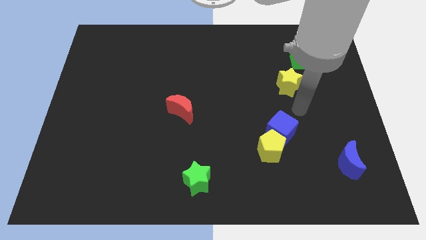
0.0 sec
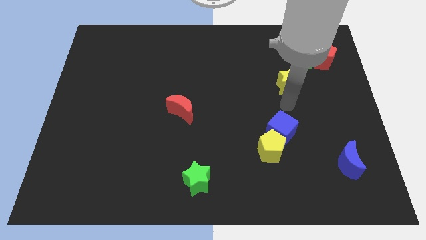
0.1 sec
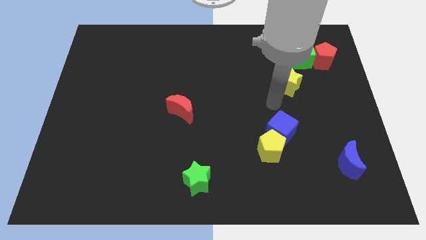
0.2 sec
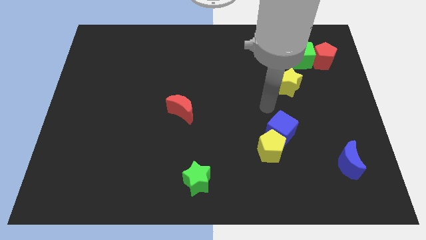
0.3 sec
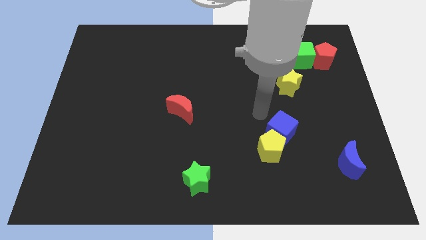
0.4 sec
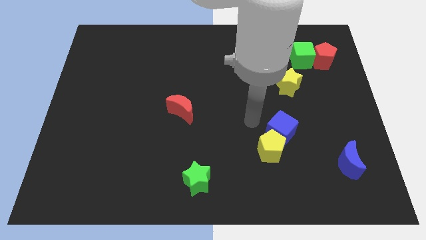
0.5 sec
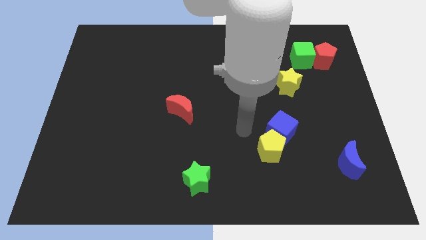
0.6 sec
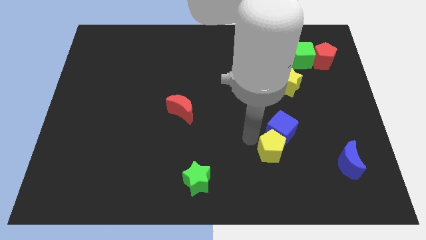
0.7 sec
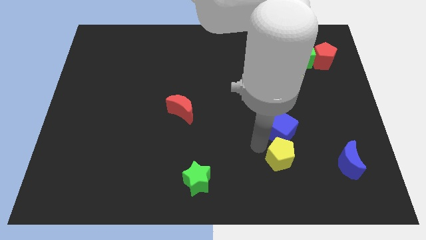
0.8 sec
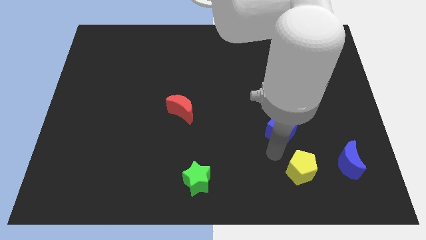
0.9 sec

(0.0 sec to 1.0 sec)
pull the blue cube apart from the yellow pentagon

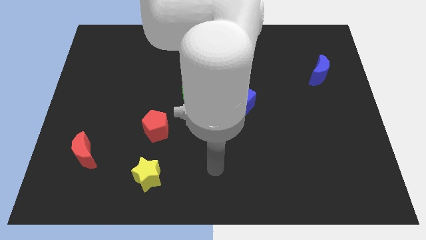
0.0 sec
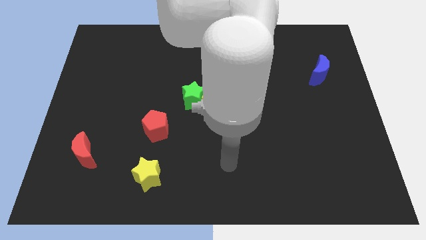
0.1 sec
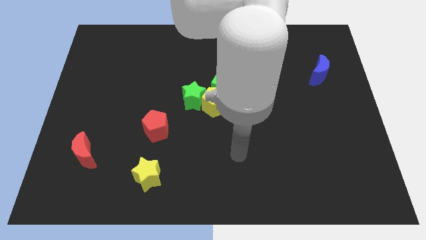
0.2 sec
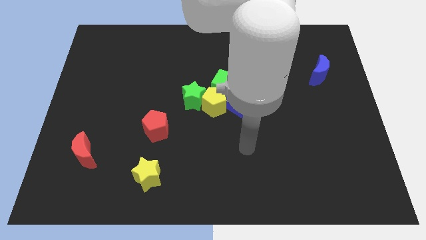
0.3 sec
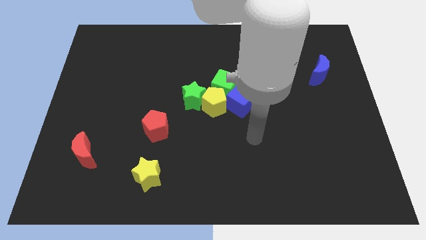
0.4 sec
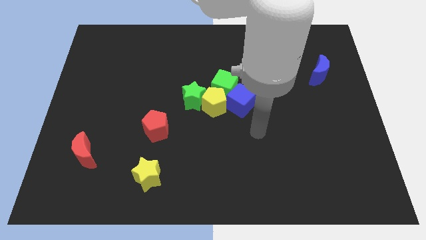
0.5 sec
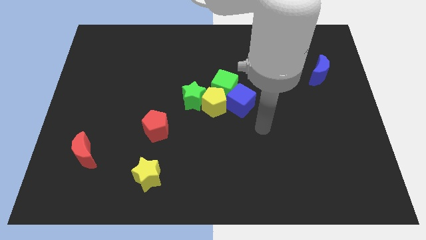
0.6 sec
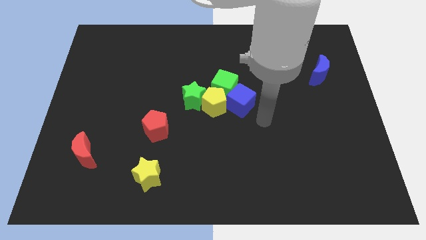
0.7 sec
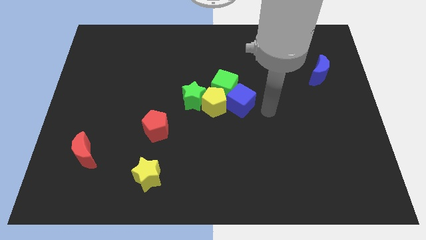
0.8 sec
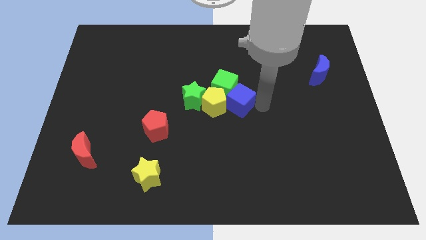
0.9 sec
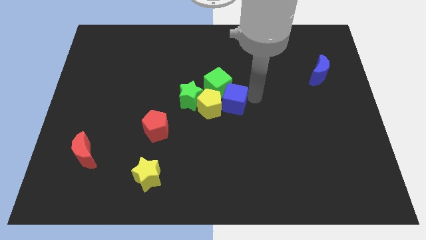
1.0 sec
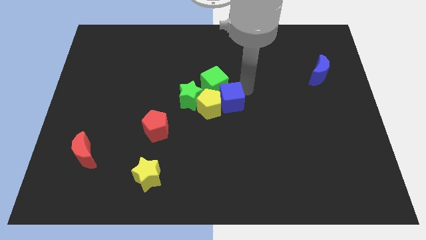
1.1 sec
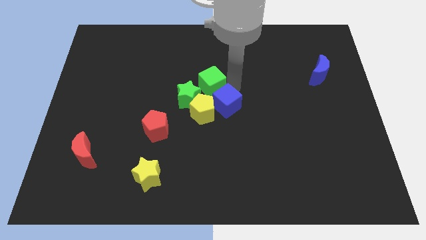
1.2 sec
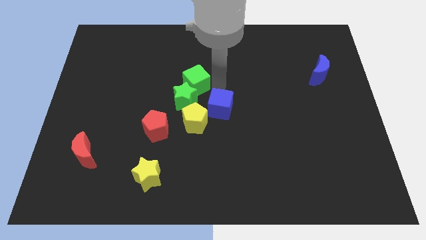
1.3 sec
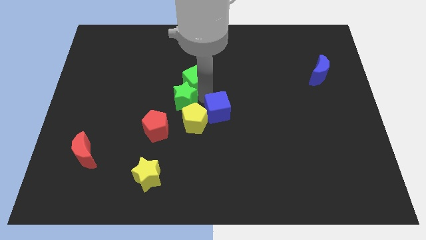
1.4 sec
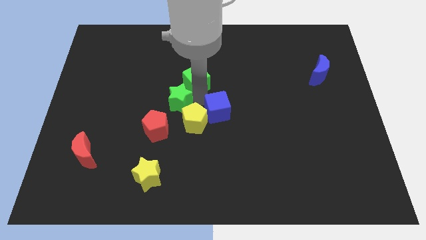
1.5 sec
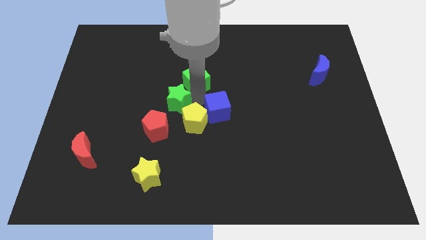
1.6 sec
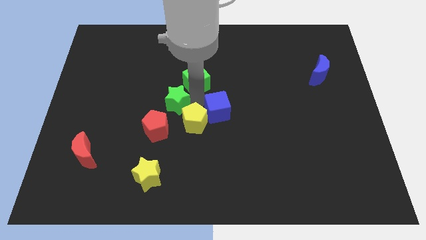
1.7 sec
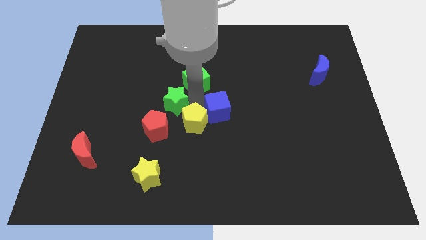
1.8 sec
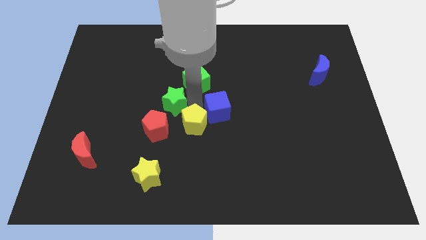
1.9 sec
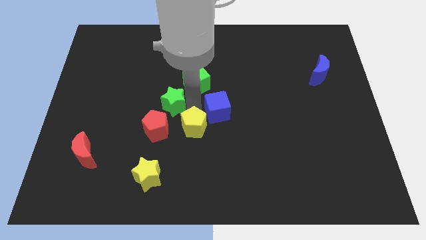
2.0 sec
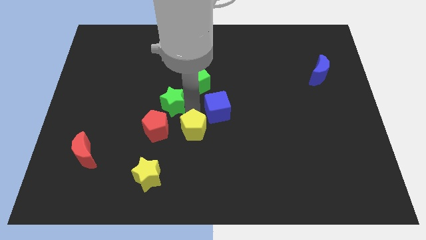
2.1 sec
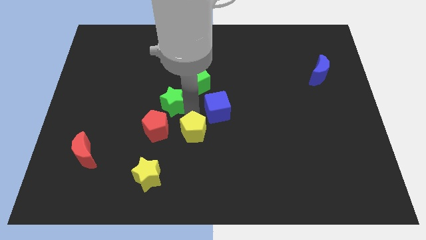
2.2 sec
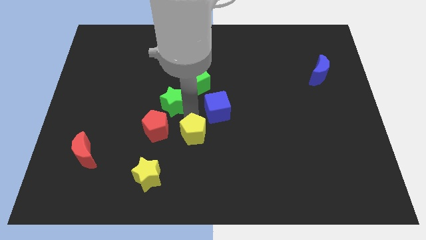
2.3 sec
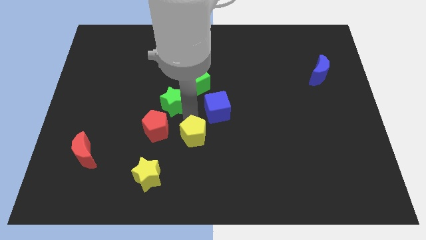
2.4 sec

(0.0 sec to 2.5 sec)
move the yellow pentagon away from the group

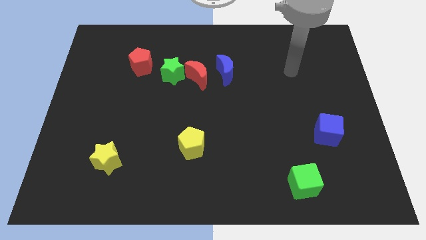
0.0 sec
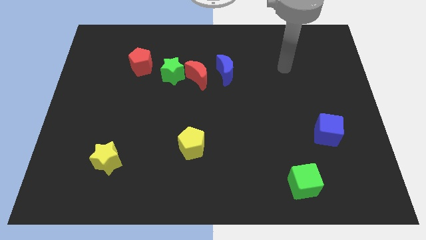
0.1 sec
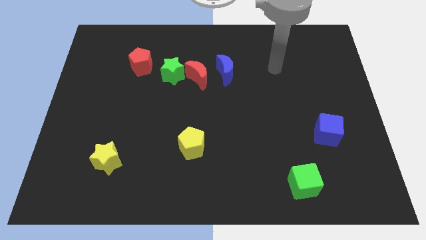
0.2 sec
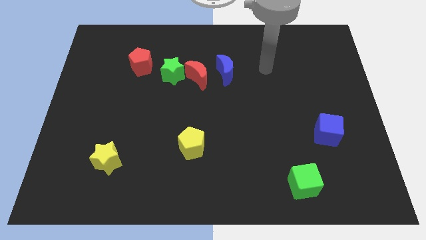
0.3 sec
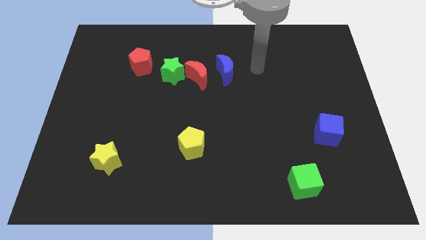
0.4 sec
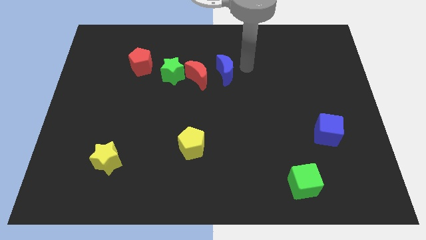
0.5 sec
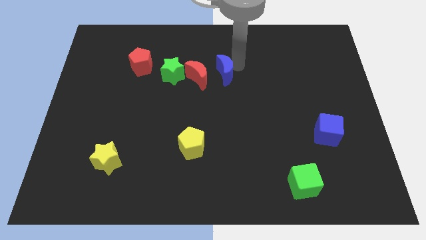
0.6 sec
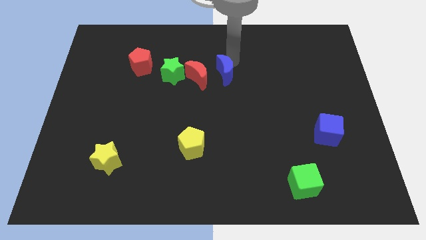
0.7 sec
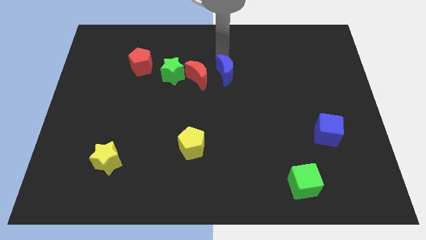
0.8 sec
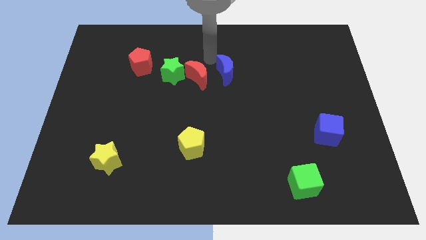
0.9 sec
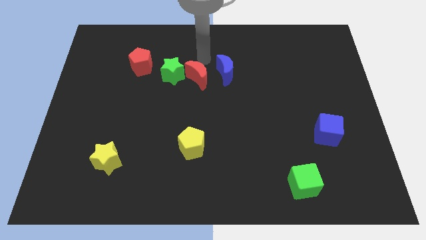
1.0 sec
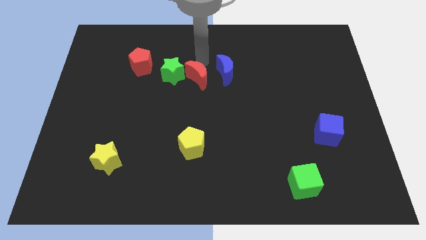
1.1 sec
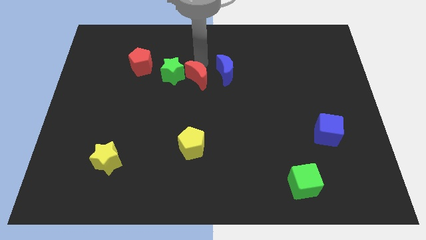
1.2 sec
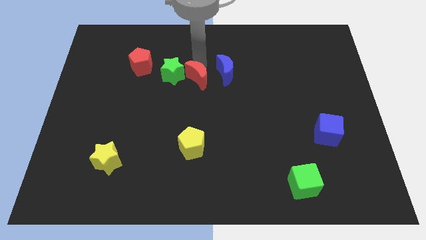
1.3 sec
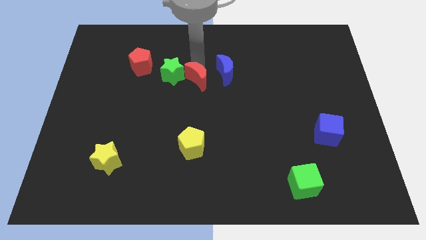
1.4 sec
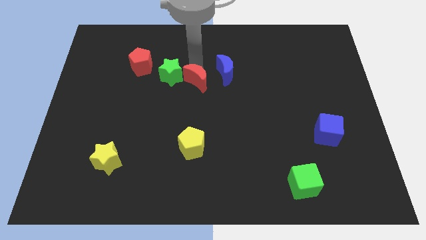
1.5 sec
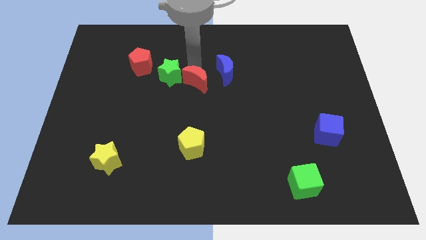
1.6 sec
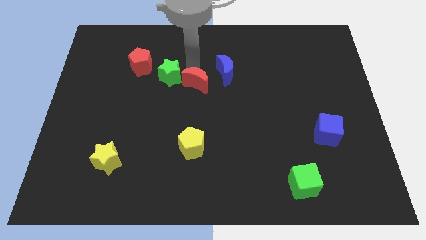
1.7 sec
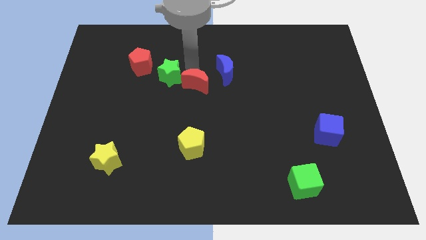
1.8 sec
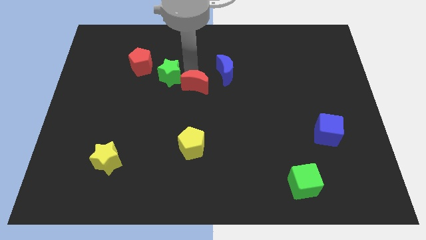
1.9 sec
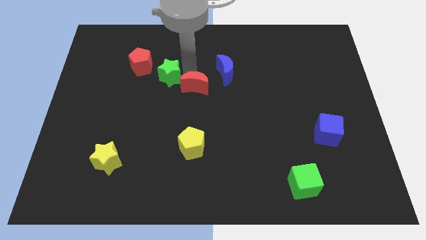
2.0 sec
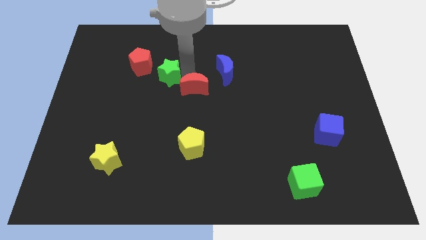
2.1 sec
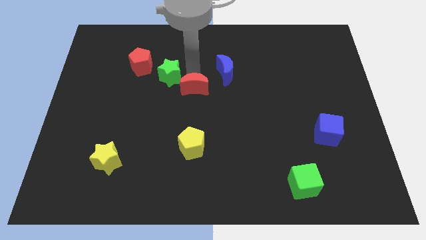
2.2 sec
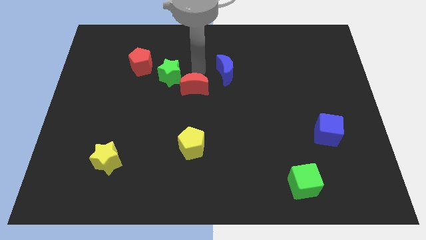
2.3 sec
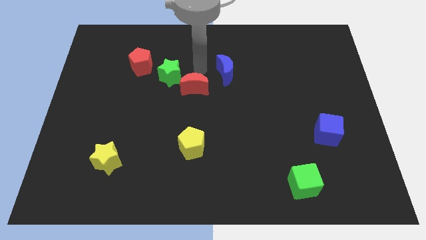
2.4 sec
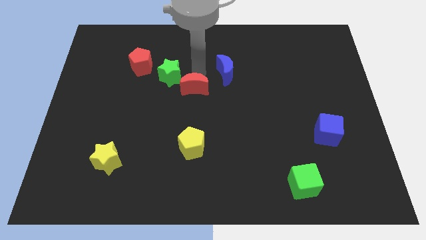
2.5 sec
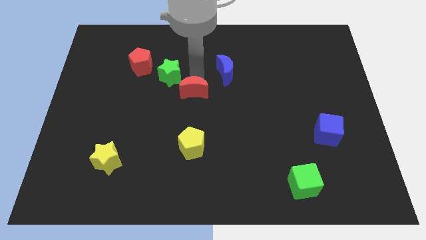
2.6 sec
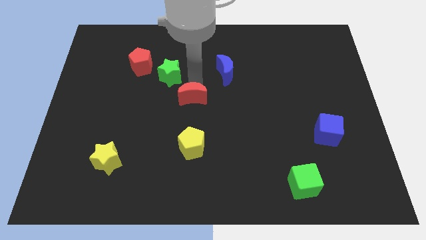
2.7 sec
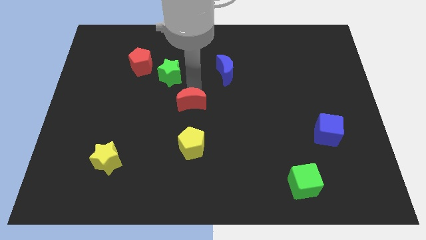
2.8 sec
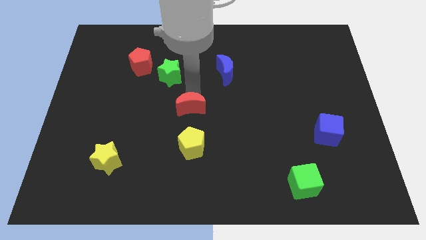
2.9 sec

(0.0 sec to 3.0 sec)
move the red moon away from the green star and blue moon

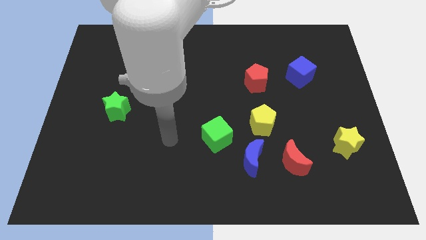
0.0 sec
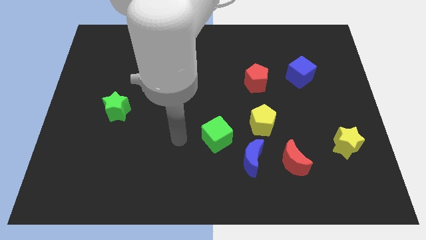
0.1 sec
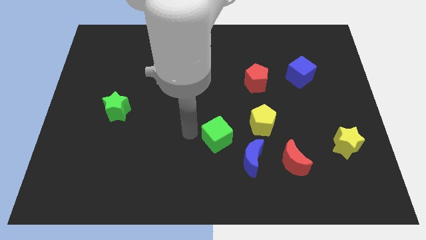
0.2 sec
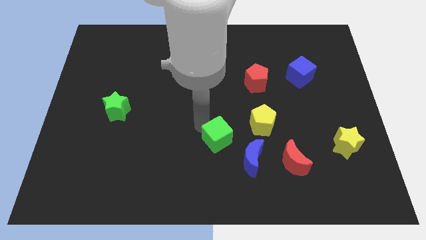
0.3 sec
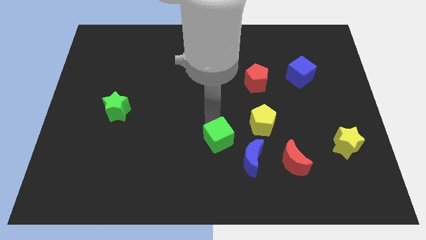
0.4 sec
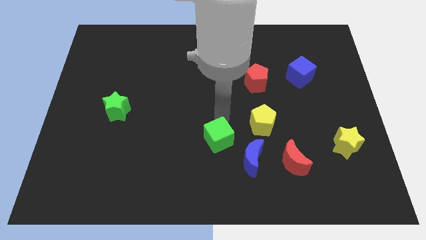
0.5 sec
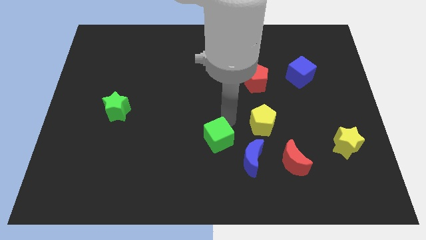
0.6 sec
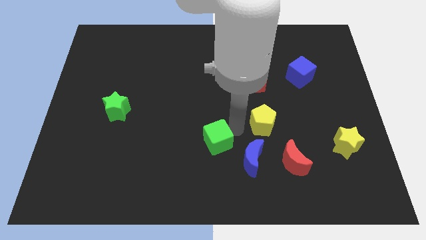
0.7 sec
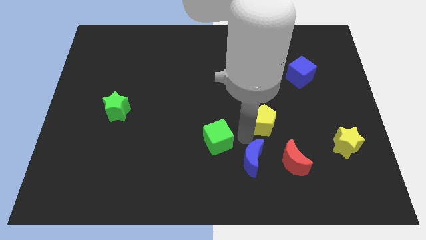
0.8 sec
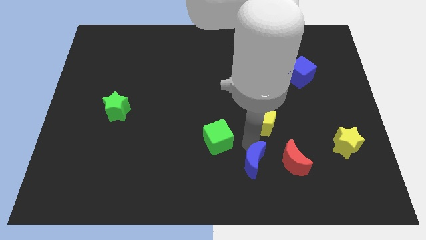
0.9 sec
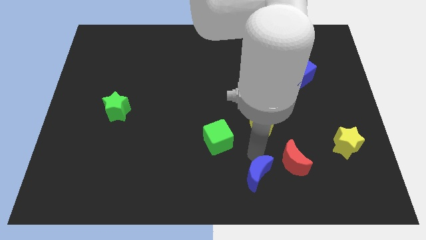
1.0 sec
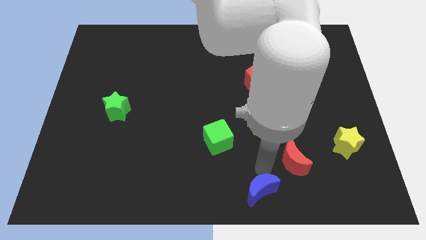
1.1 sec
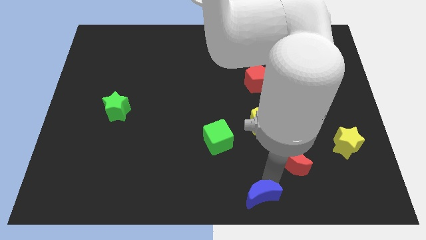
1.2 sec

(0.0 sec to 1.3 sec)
pull the red moon apart from the blue moon

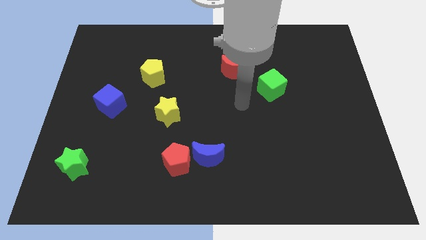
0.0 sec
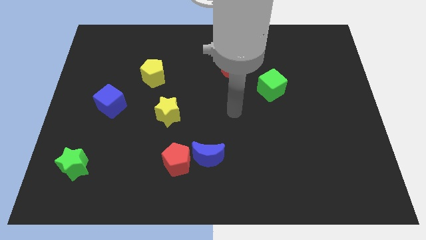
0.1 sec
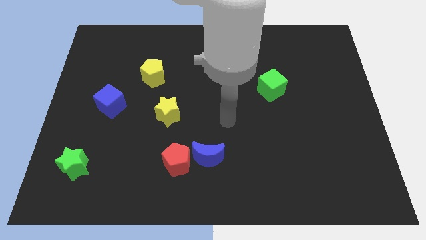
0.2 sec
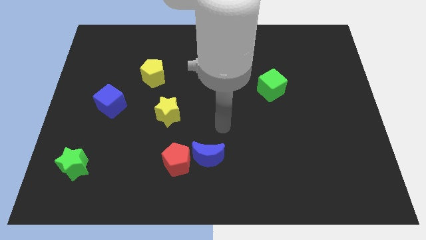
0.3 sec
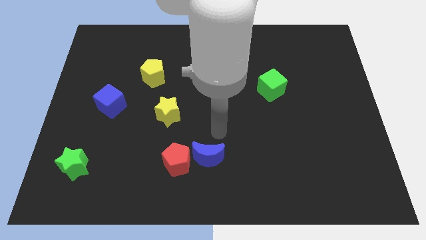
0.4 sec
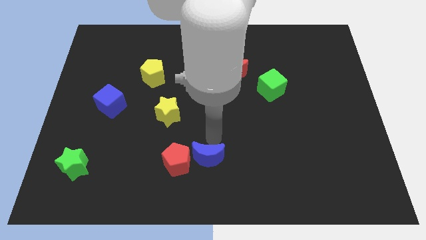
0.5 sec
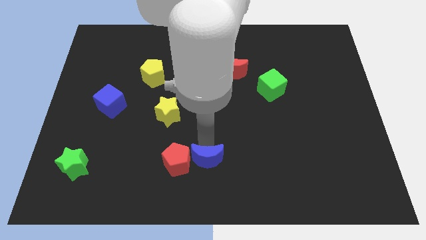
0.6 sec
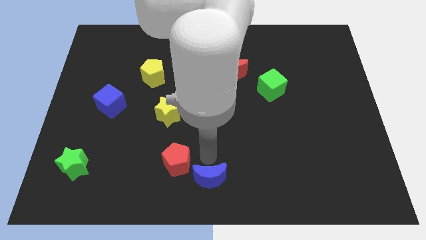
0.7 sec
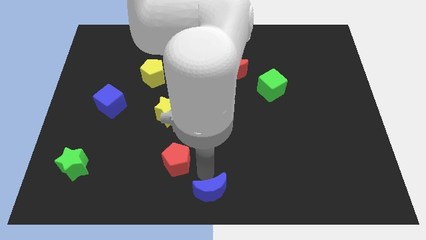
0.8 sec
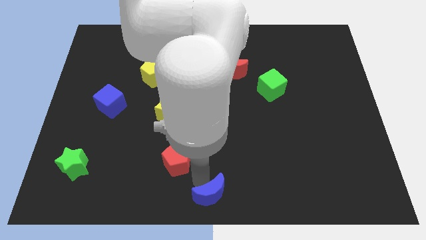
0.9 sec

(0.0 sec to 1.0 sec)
move the red pentagon away from the blue moon

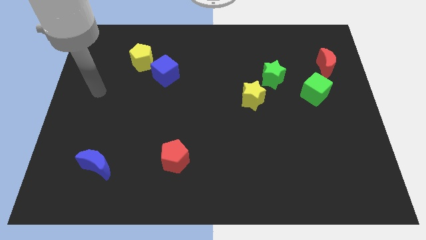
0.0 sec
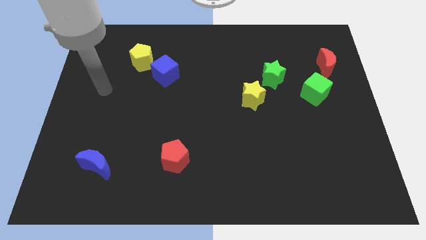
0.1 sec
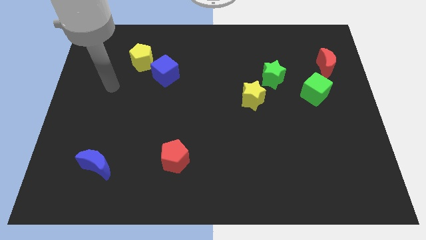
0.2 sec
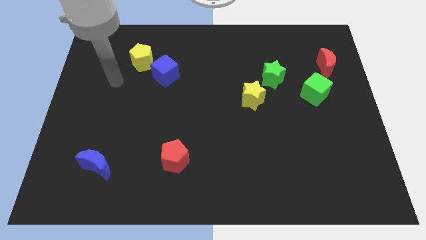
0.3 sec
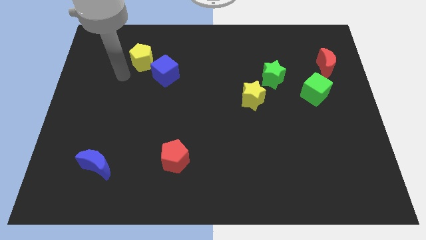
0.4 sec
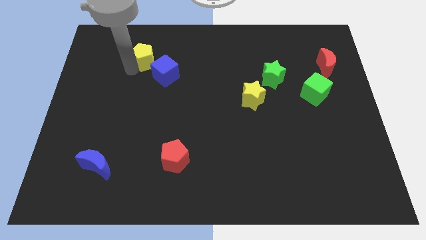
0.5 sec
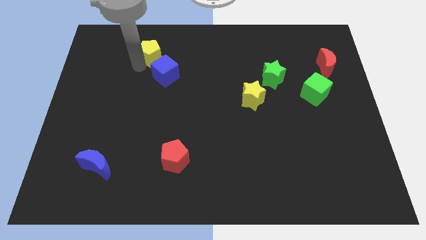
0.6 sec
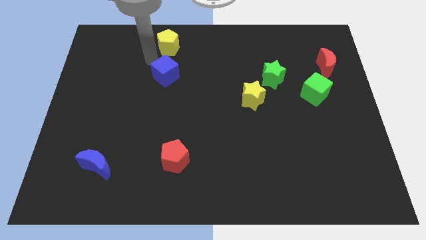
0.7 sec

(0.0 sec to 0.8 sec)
move the blue cube away from the yellow pentagon
